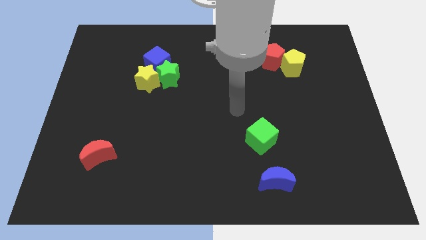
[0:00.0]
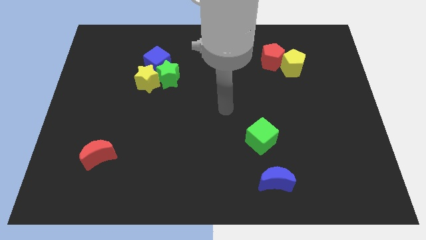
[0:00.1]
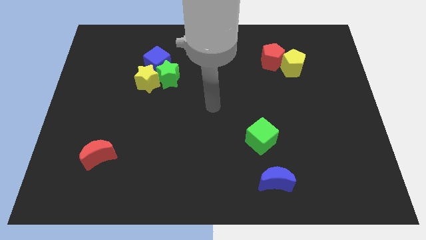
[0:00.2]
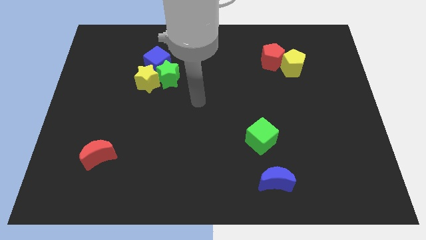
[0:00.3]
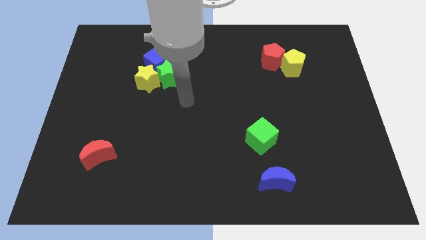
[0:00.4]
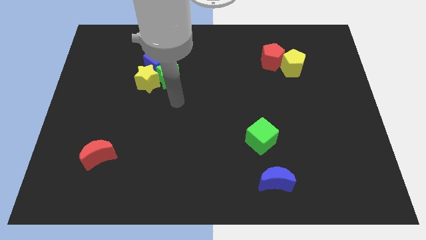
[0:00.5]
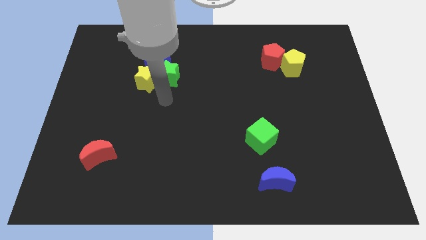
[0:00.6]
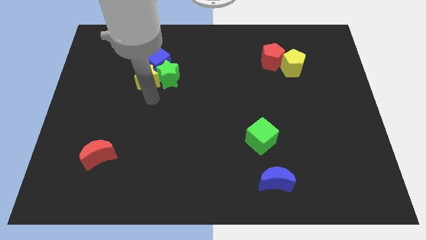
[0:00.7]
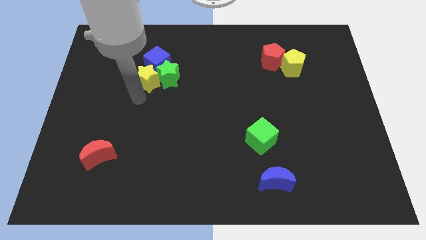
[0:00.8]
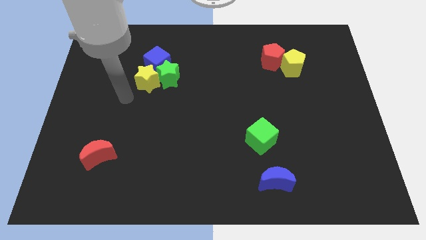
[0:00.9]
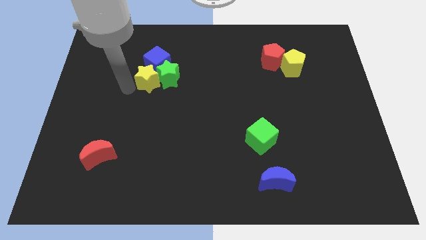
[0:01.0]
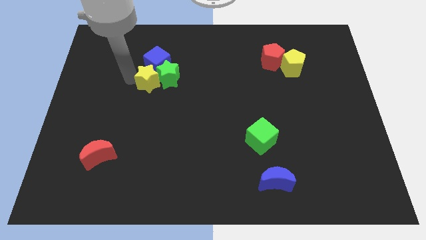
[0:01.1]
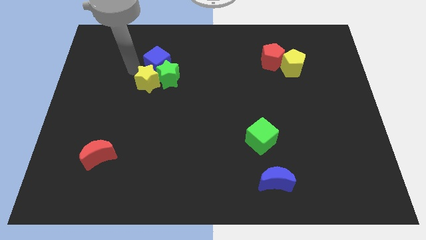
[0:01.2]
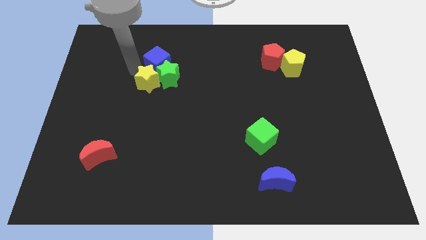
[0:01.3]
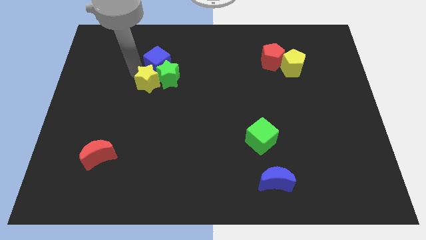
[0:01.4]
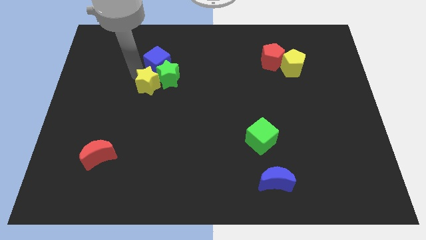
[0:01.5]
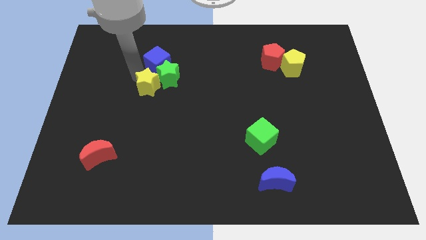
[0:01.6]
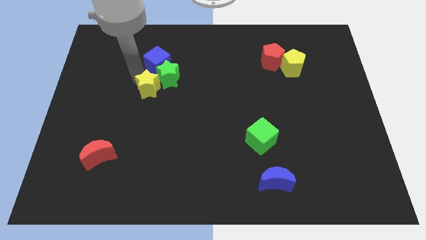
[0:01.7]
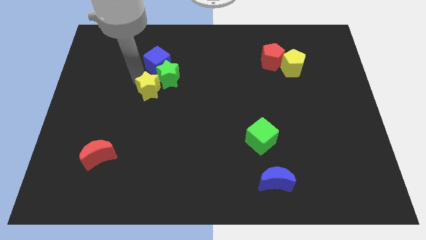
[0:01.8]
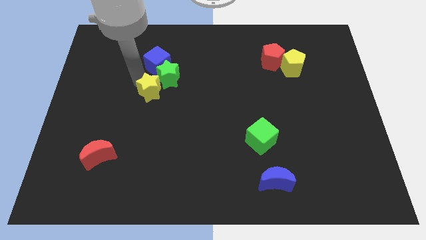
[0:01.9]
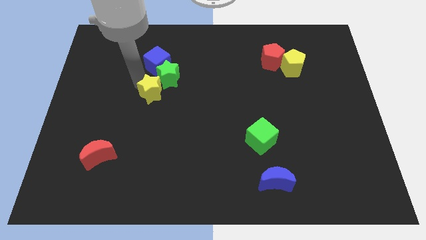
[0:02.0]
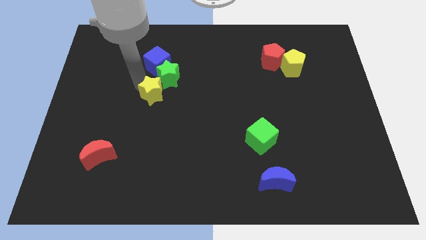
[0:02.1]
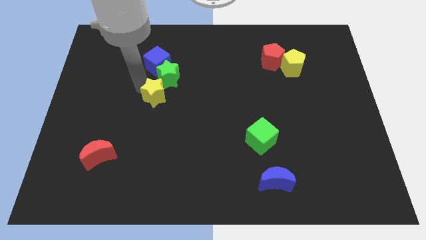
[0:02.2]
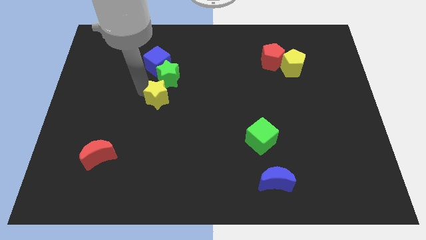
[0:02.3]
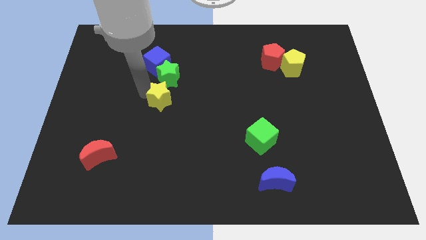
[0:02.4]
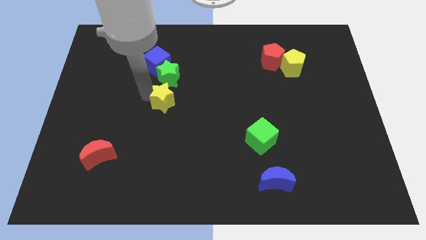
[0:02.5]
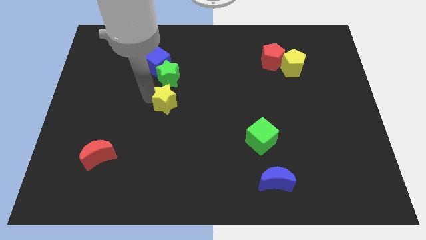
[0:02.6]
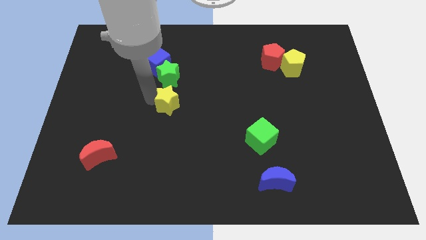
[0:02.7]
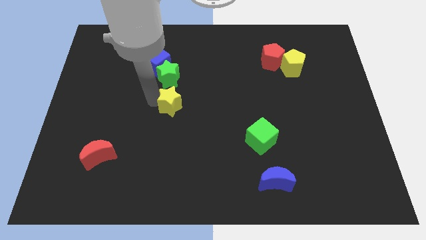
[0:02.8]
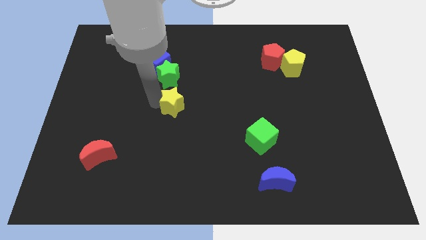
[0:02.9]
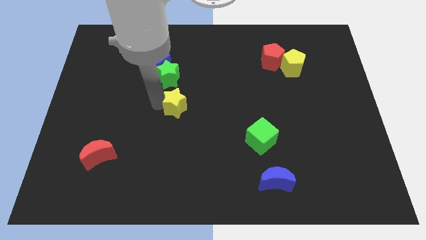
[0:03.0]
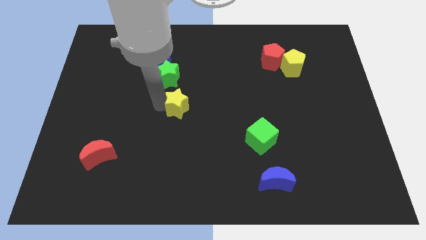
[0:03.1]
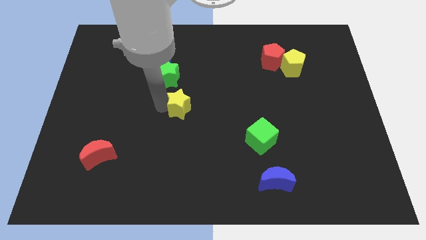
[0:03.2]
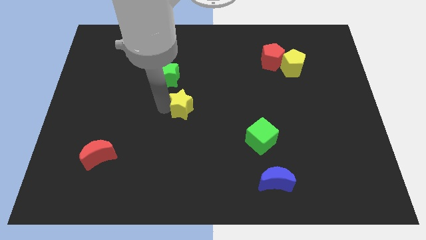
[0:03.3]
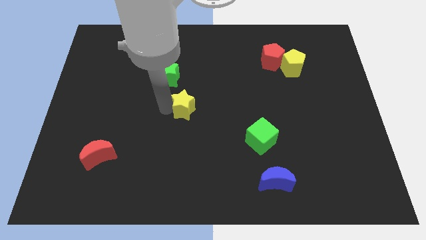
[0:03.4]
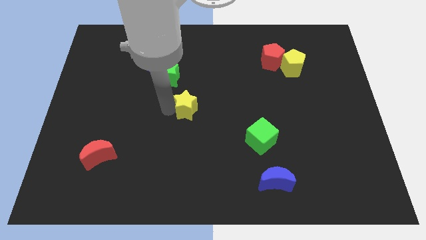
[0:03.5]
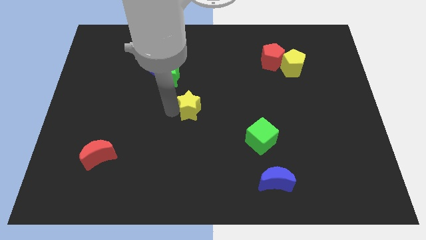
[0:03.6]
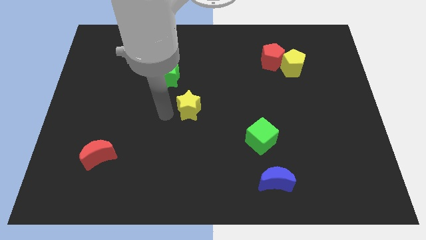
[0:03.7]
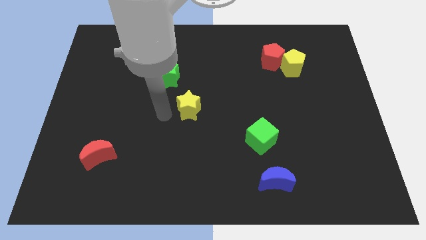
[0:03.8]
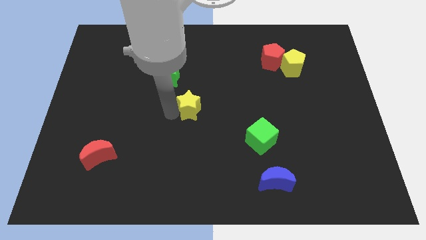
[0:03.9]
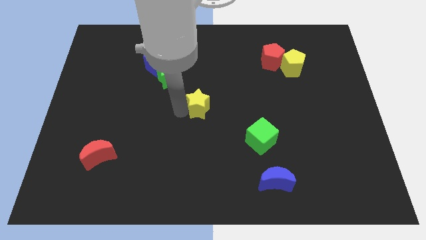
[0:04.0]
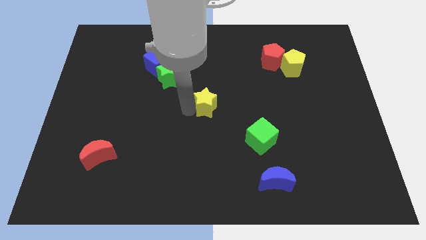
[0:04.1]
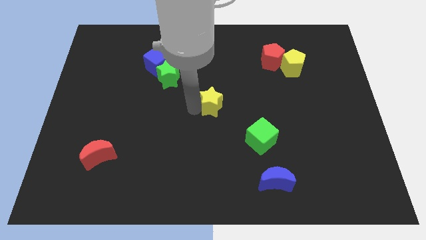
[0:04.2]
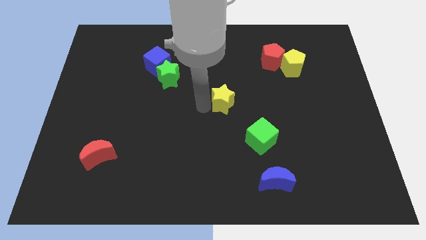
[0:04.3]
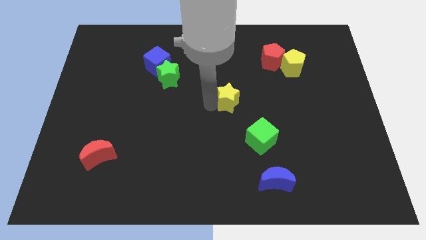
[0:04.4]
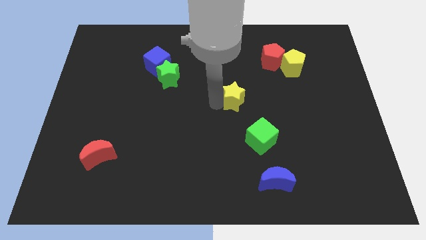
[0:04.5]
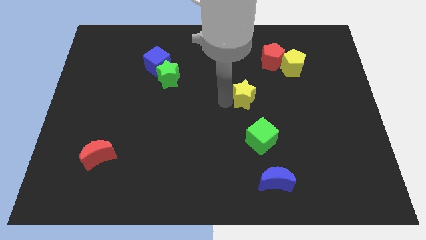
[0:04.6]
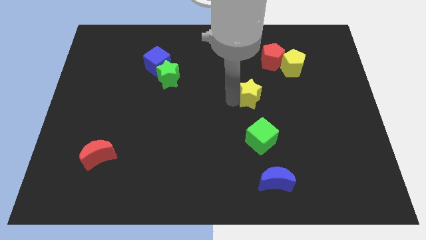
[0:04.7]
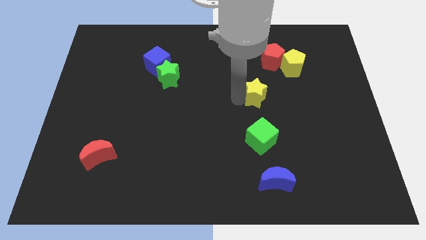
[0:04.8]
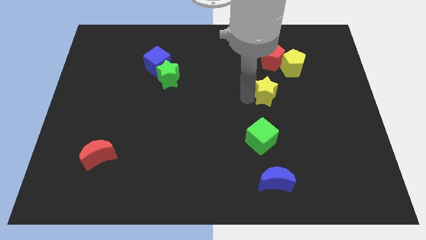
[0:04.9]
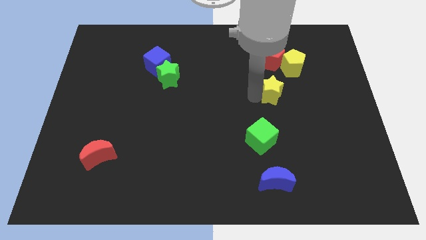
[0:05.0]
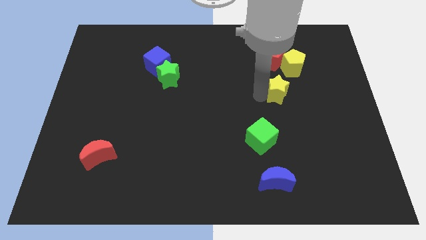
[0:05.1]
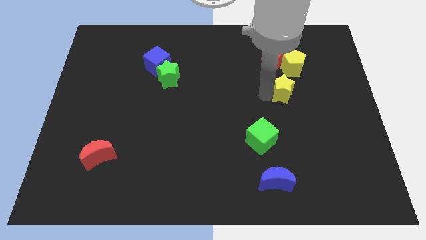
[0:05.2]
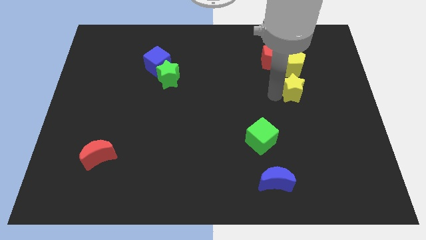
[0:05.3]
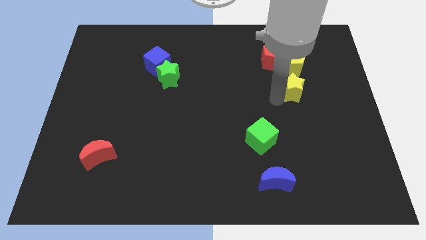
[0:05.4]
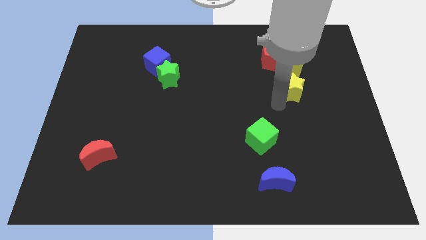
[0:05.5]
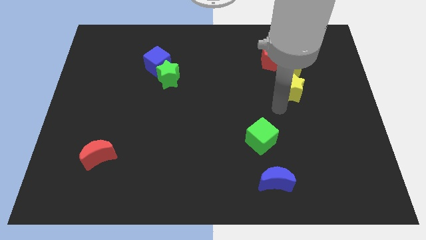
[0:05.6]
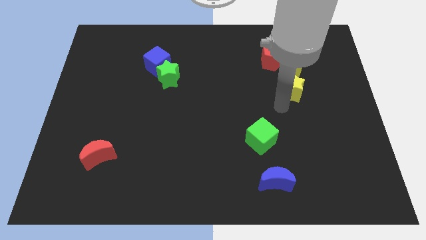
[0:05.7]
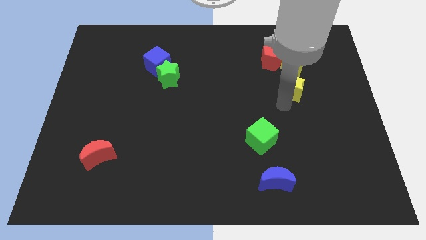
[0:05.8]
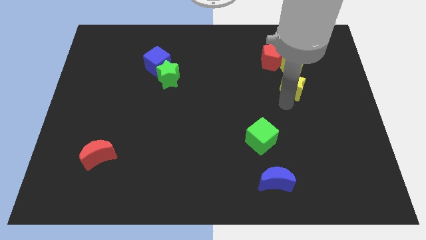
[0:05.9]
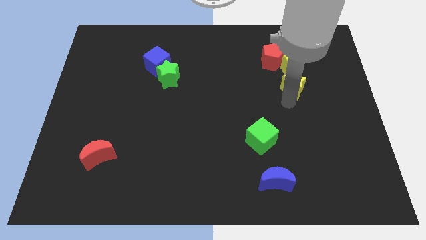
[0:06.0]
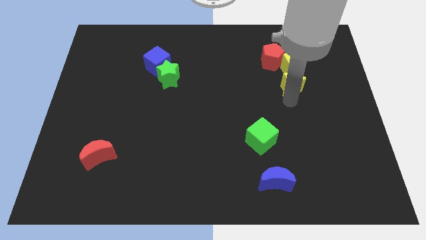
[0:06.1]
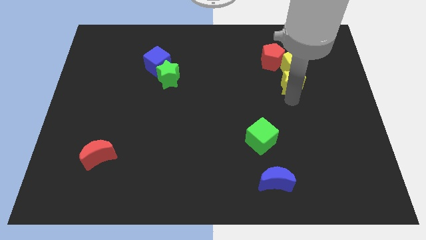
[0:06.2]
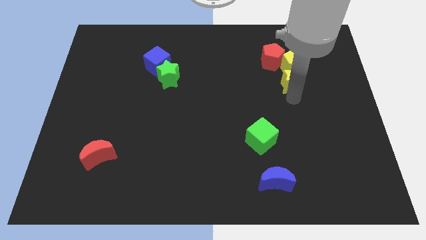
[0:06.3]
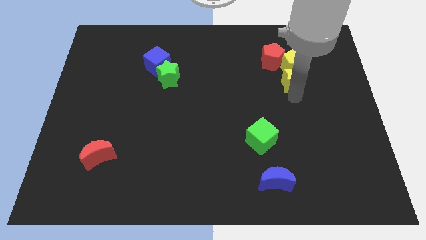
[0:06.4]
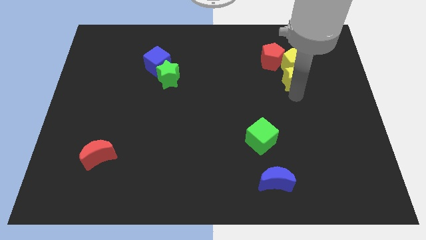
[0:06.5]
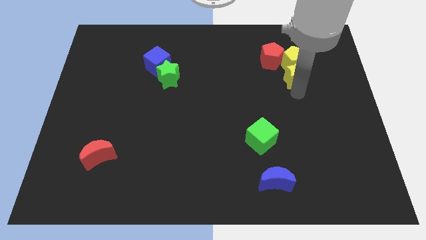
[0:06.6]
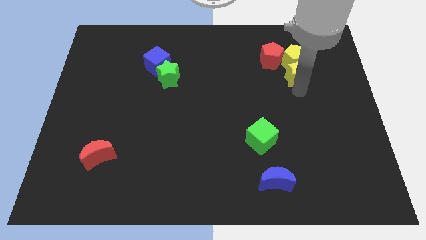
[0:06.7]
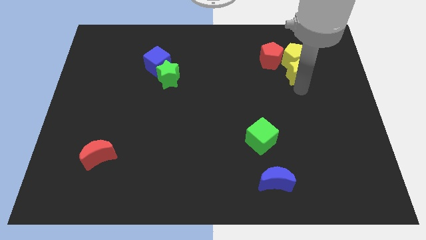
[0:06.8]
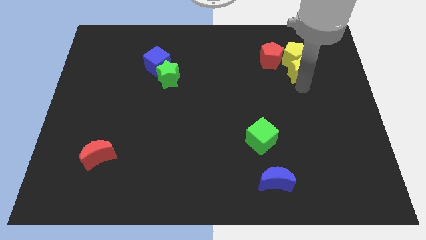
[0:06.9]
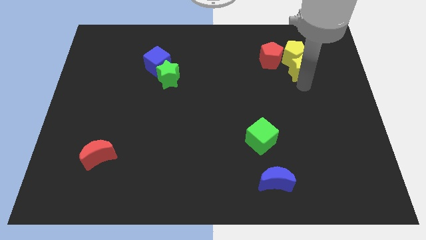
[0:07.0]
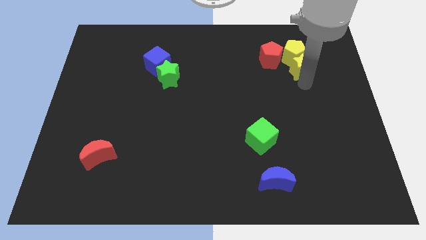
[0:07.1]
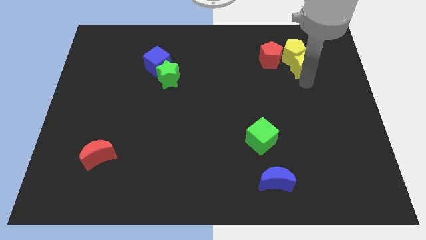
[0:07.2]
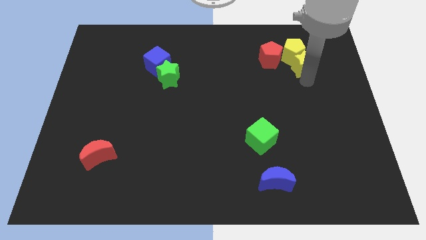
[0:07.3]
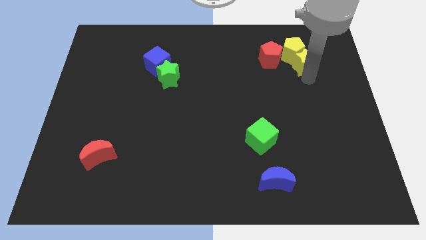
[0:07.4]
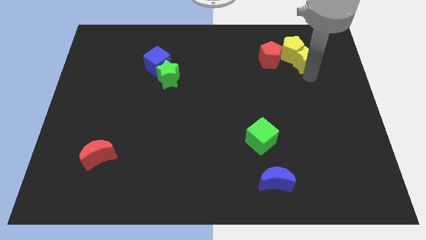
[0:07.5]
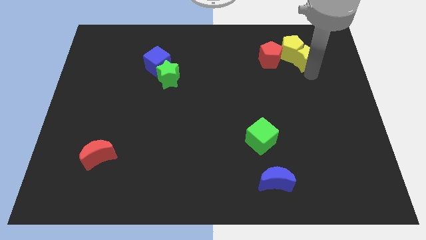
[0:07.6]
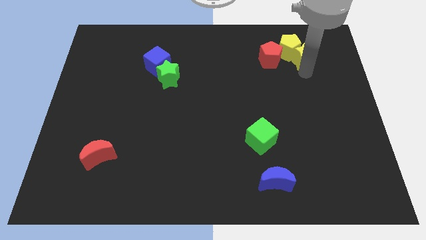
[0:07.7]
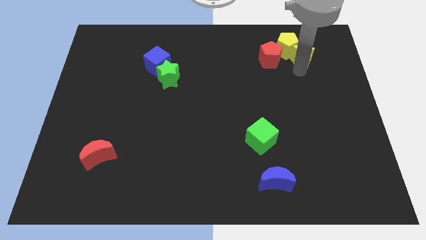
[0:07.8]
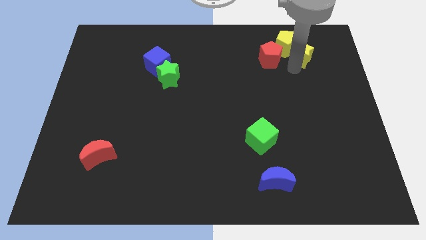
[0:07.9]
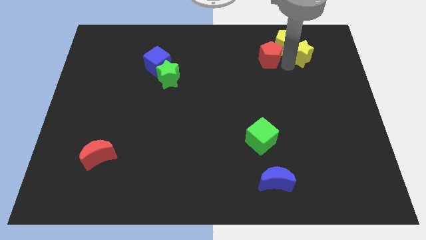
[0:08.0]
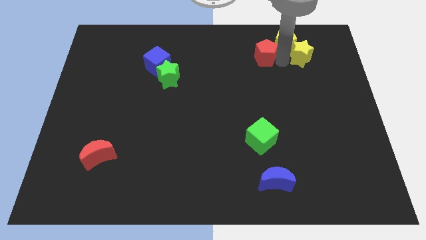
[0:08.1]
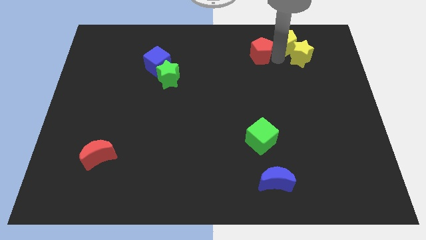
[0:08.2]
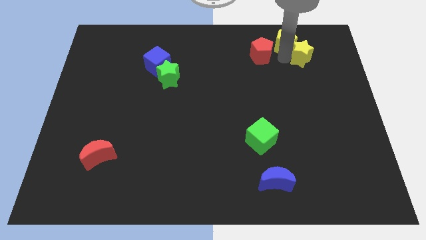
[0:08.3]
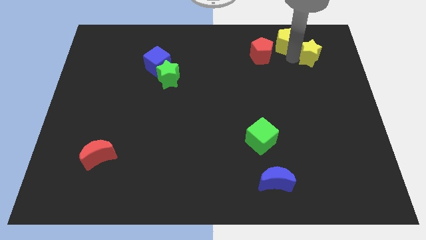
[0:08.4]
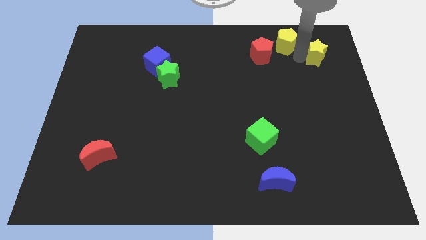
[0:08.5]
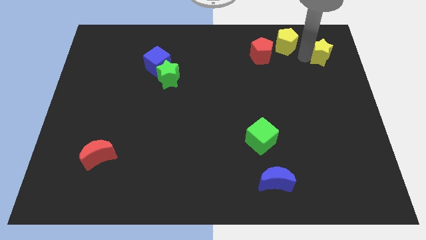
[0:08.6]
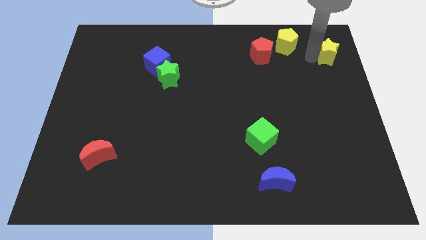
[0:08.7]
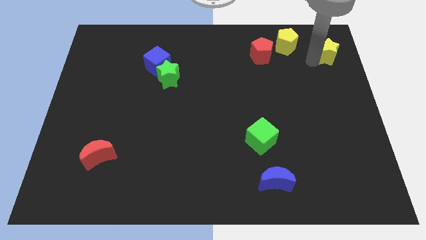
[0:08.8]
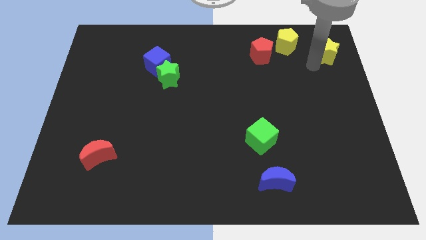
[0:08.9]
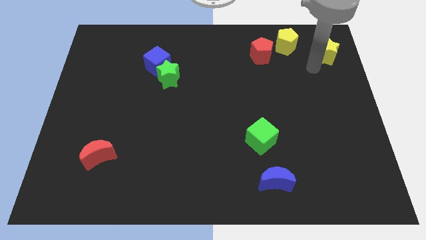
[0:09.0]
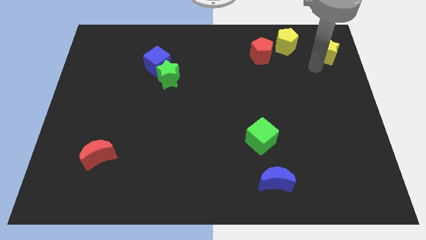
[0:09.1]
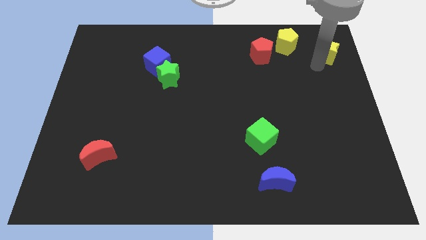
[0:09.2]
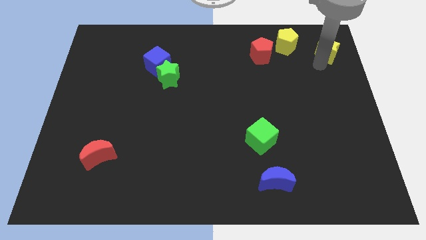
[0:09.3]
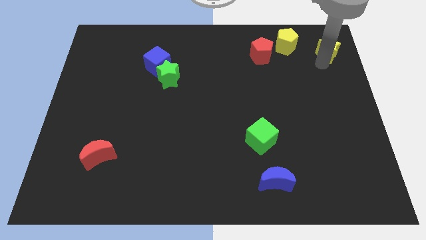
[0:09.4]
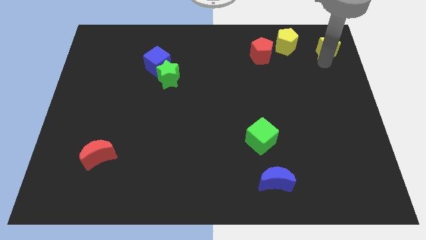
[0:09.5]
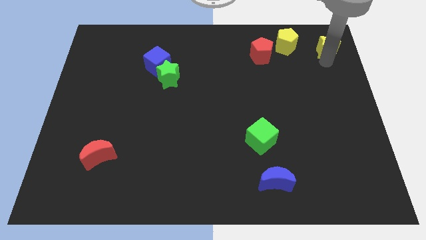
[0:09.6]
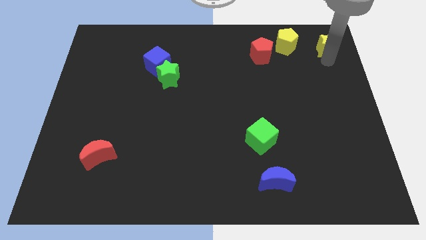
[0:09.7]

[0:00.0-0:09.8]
put the yellow star to the top right corner
